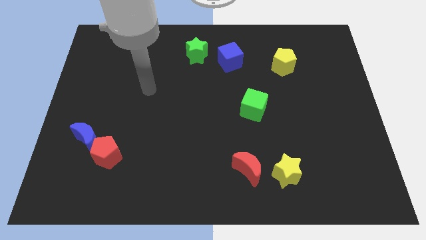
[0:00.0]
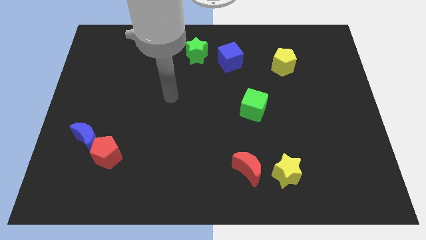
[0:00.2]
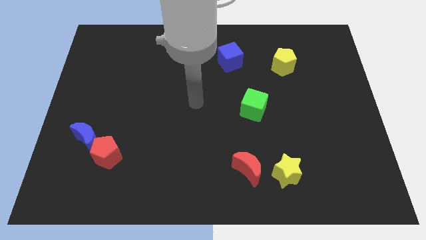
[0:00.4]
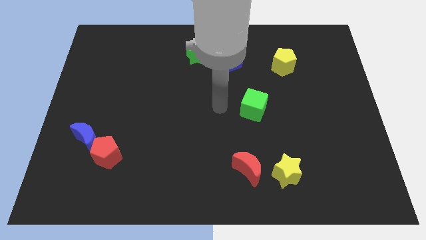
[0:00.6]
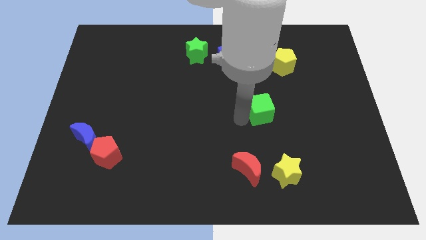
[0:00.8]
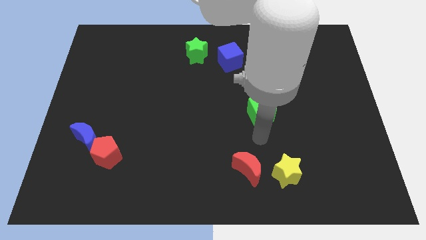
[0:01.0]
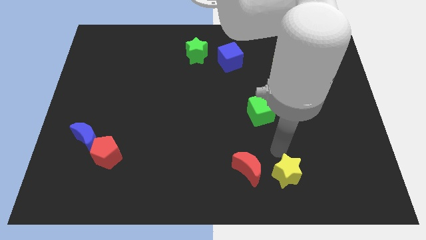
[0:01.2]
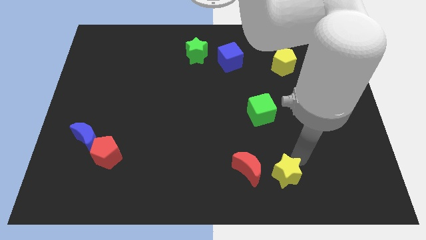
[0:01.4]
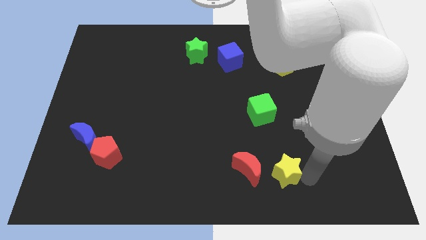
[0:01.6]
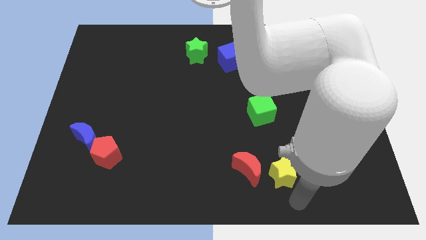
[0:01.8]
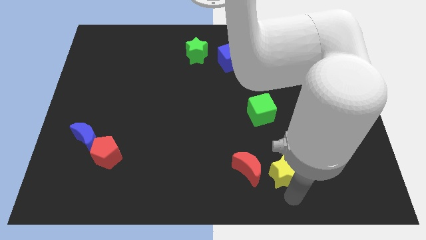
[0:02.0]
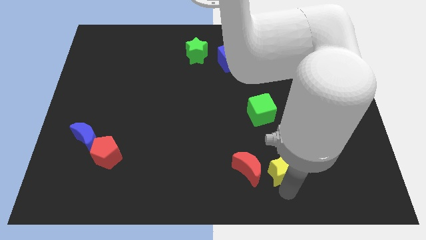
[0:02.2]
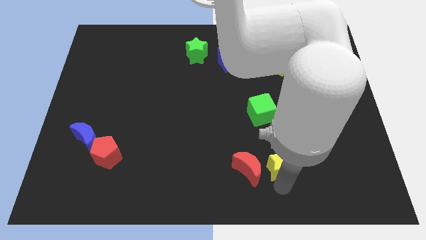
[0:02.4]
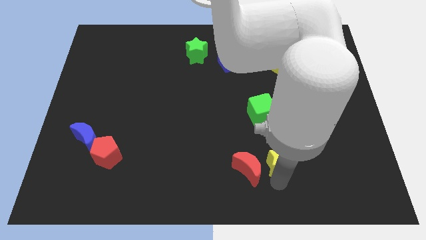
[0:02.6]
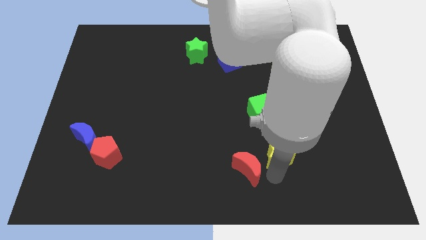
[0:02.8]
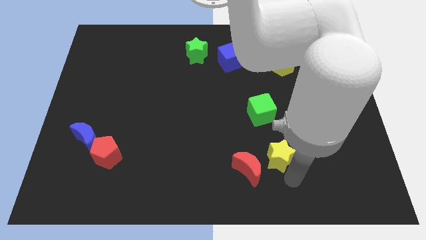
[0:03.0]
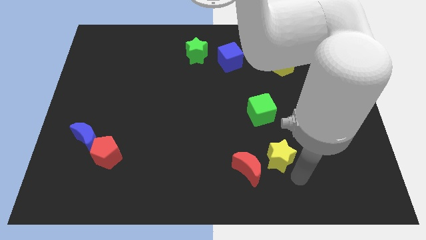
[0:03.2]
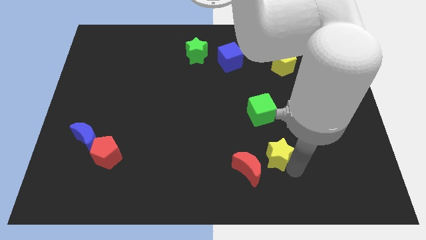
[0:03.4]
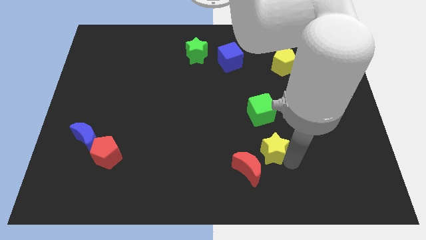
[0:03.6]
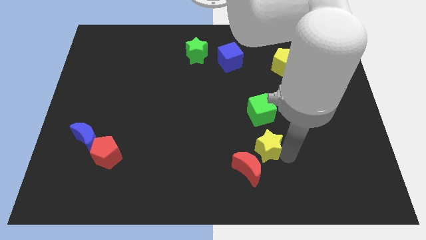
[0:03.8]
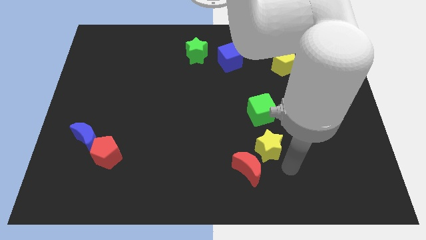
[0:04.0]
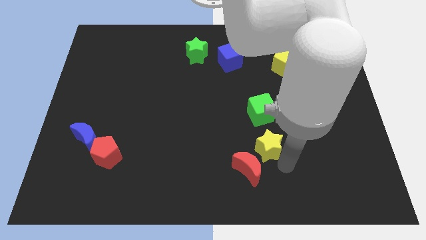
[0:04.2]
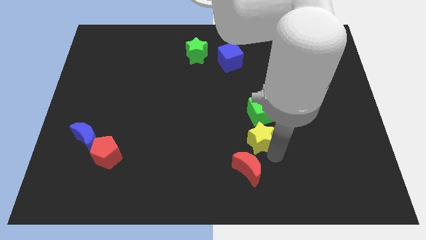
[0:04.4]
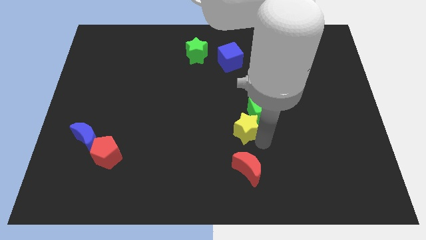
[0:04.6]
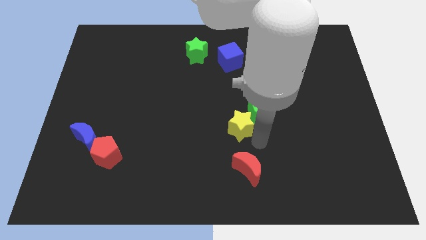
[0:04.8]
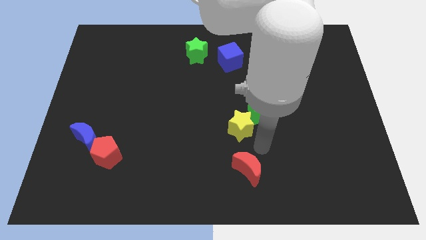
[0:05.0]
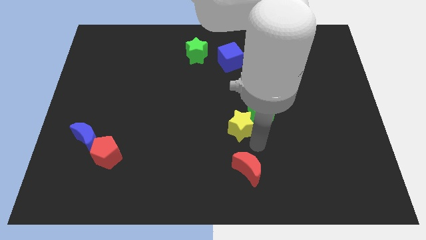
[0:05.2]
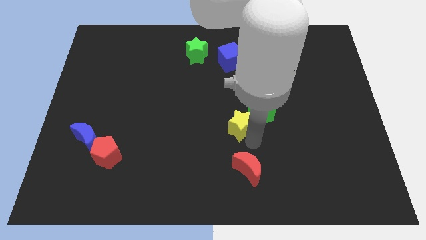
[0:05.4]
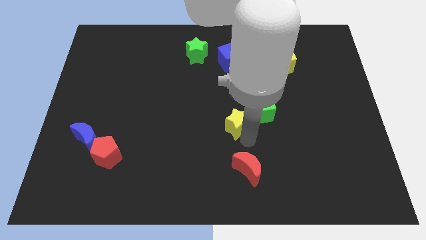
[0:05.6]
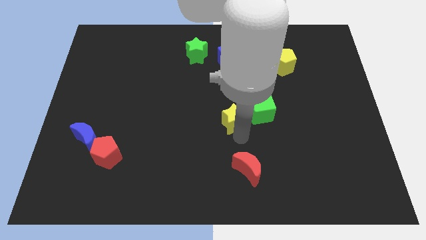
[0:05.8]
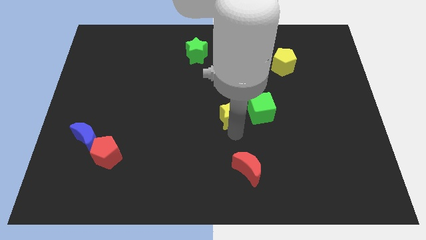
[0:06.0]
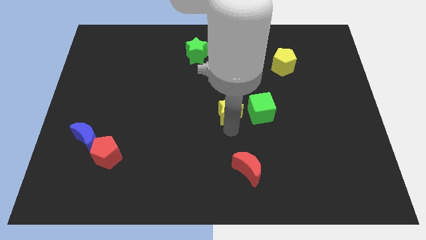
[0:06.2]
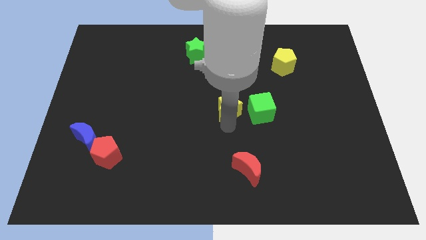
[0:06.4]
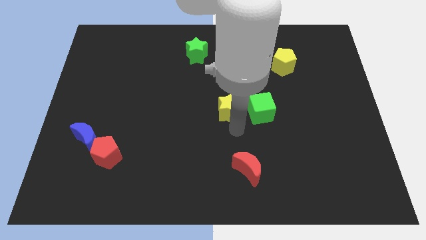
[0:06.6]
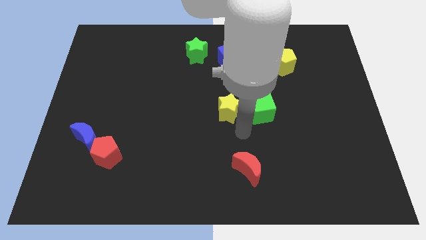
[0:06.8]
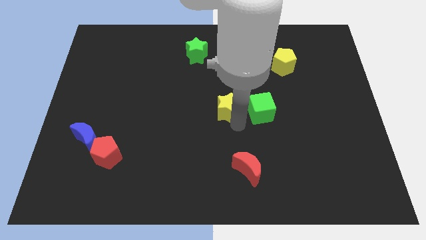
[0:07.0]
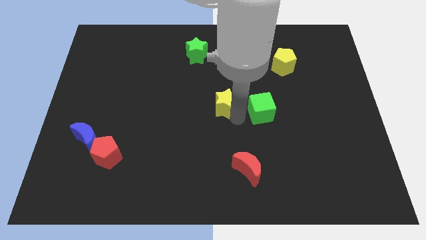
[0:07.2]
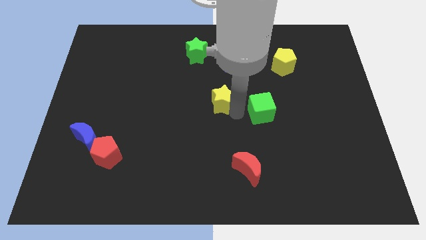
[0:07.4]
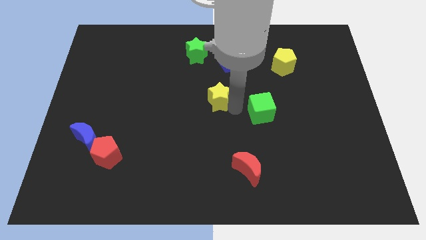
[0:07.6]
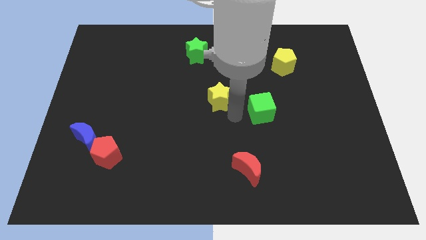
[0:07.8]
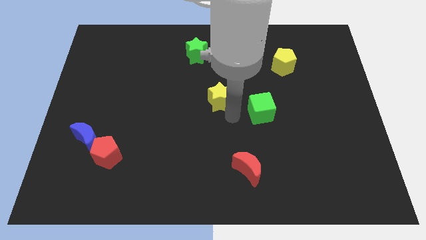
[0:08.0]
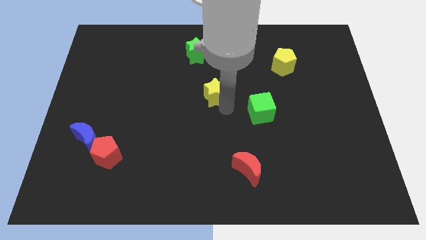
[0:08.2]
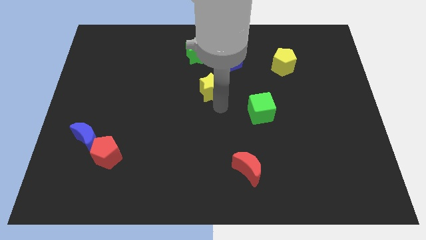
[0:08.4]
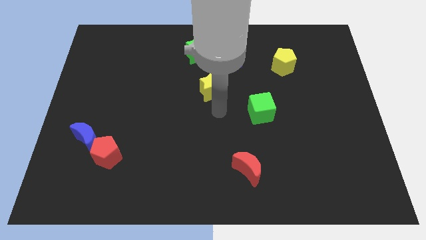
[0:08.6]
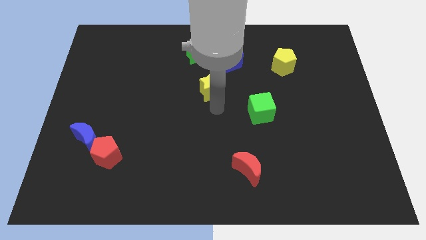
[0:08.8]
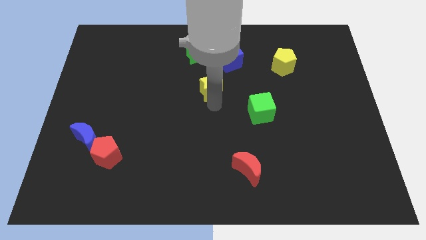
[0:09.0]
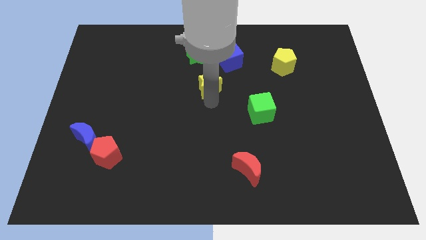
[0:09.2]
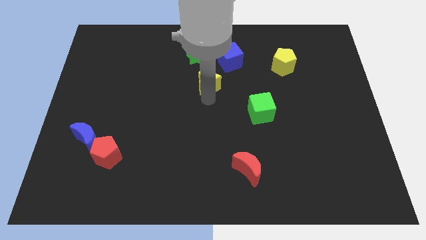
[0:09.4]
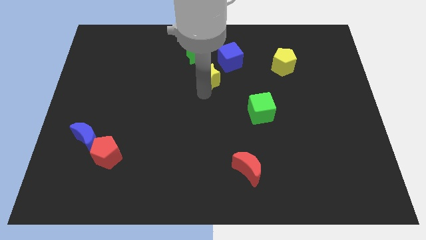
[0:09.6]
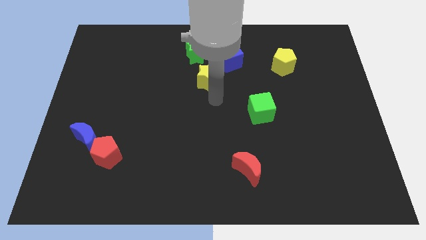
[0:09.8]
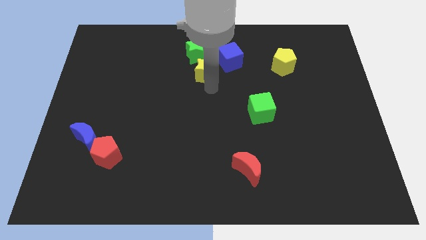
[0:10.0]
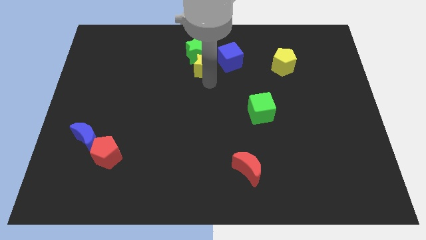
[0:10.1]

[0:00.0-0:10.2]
slide the yellow star next to the green star

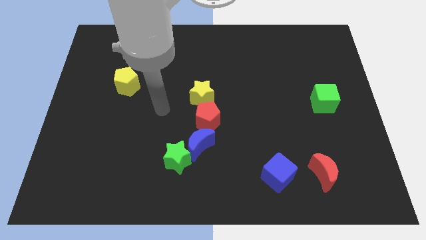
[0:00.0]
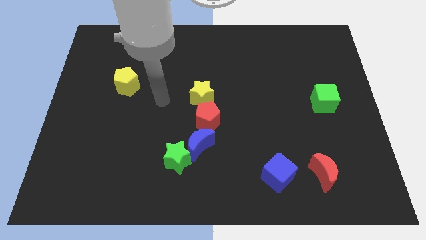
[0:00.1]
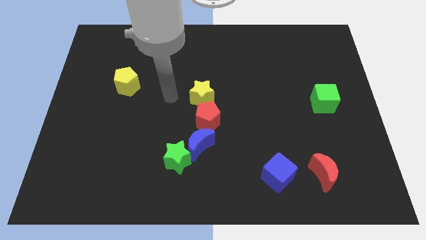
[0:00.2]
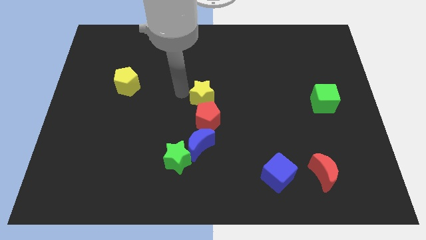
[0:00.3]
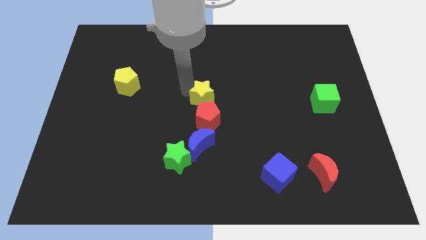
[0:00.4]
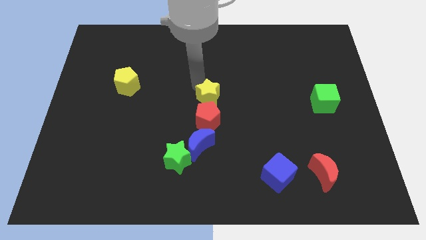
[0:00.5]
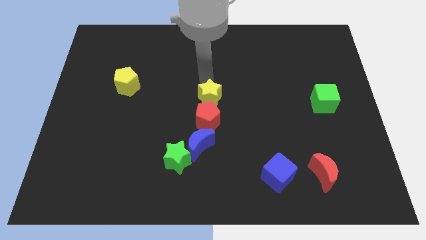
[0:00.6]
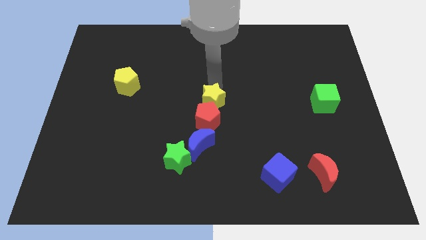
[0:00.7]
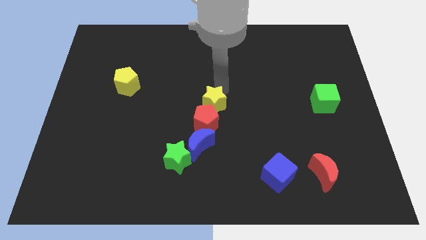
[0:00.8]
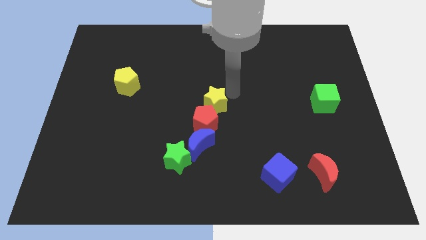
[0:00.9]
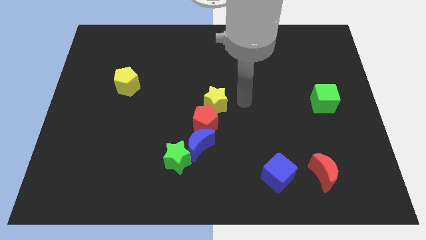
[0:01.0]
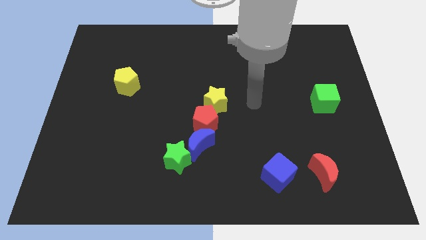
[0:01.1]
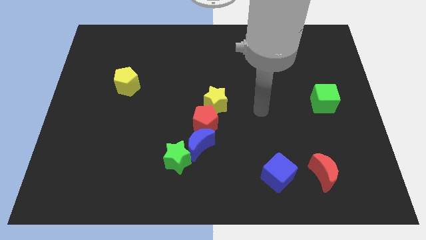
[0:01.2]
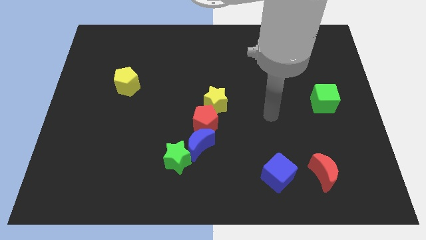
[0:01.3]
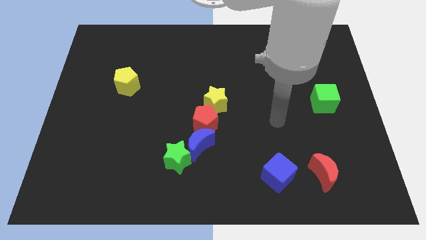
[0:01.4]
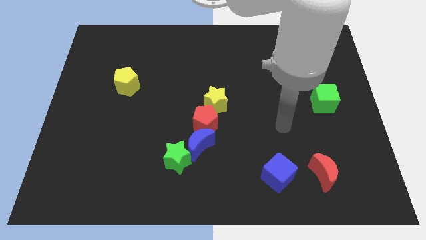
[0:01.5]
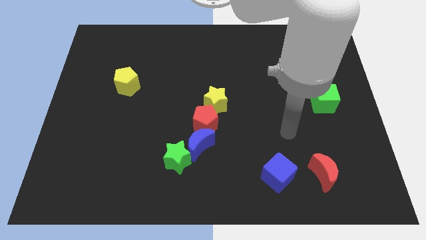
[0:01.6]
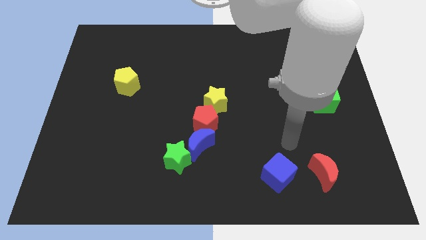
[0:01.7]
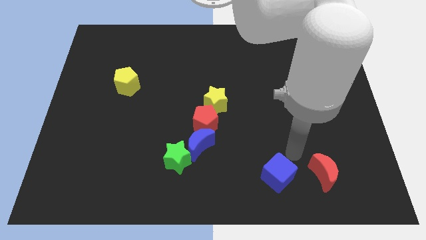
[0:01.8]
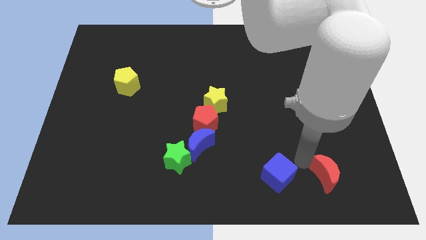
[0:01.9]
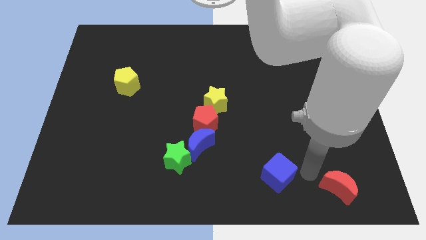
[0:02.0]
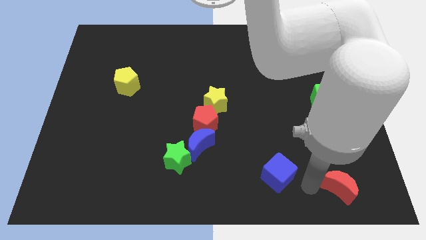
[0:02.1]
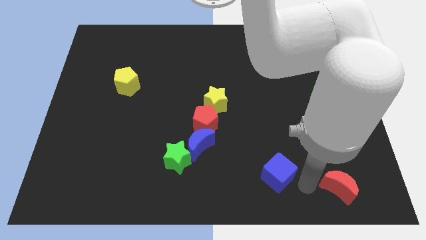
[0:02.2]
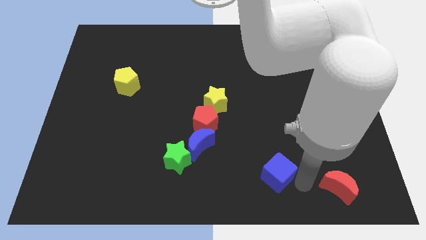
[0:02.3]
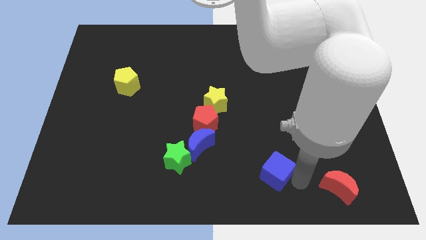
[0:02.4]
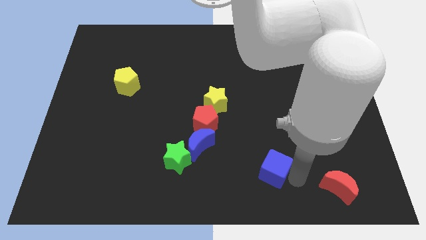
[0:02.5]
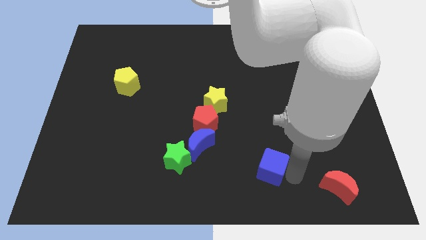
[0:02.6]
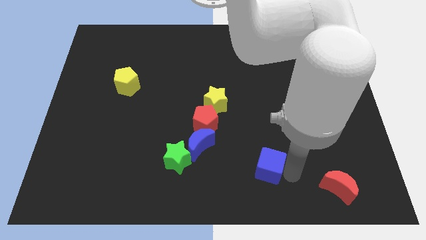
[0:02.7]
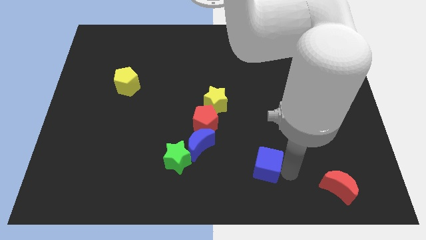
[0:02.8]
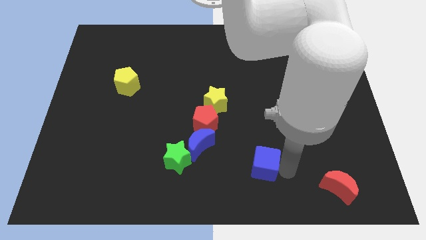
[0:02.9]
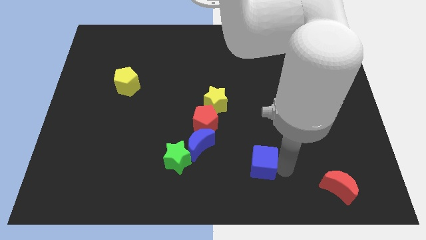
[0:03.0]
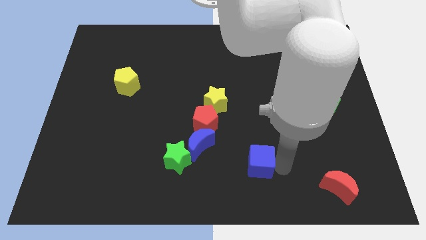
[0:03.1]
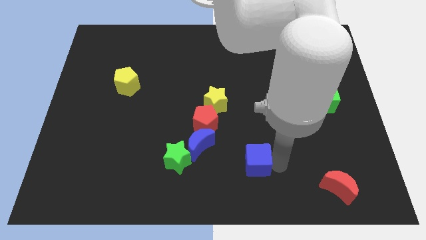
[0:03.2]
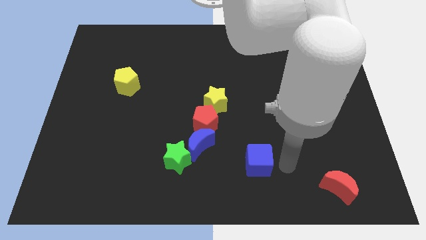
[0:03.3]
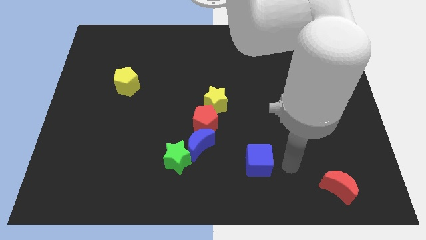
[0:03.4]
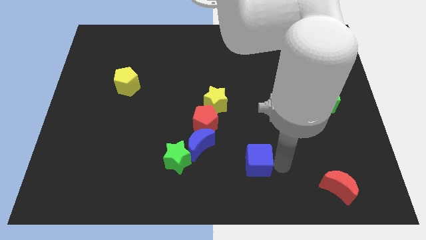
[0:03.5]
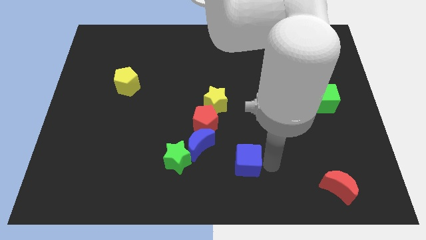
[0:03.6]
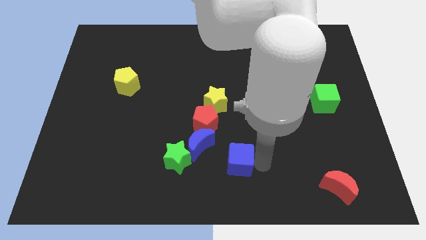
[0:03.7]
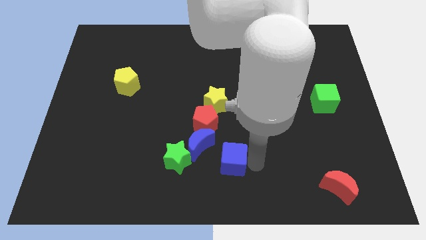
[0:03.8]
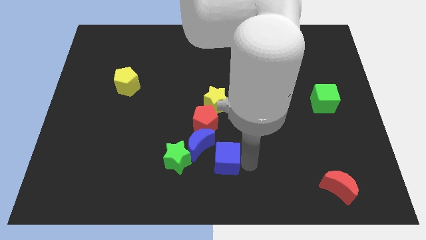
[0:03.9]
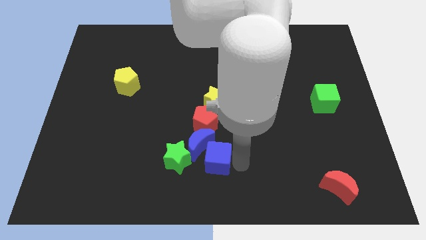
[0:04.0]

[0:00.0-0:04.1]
put the blue cube close to the blue moon
